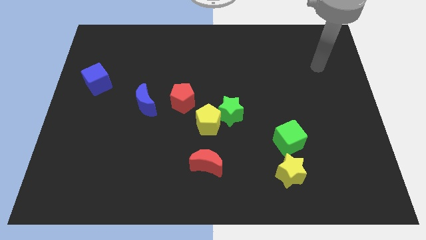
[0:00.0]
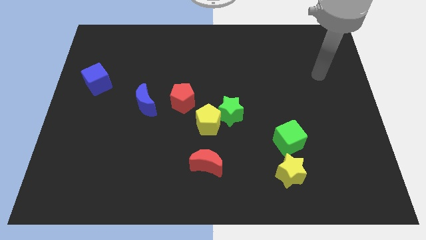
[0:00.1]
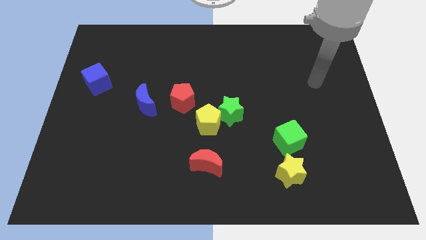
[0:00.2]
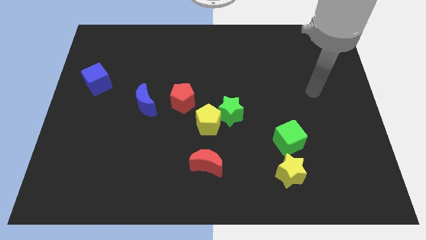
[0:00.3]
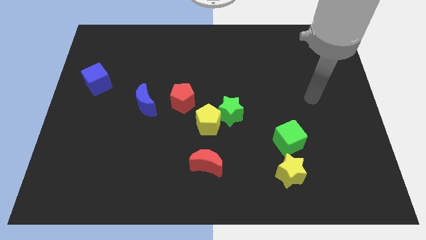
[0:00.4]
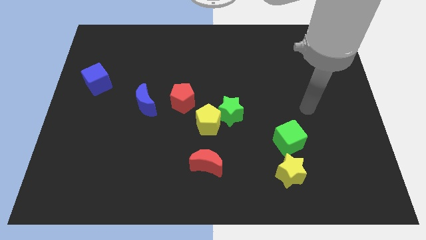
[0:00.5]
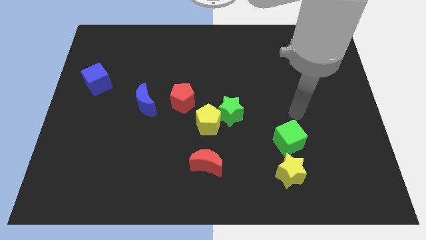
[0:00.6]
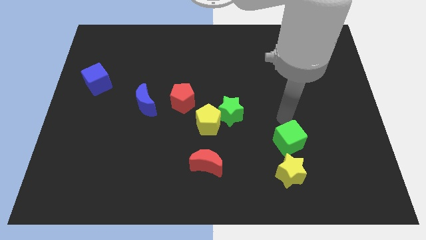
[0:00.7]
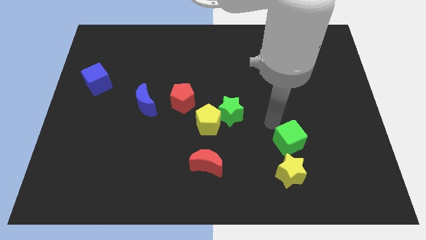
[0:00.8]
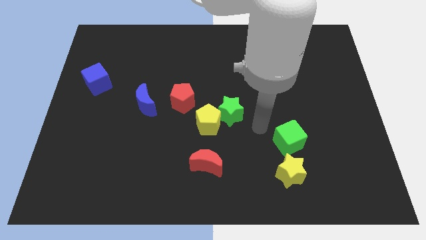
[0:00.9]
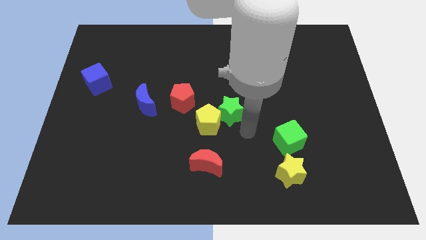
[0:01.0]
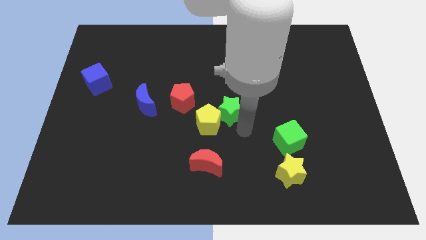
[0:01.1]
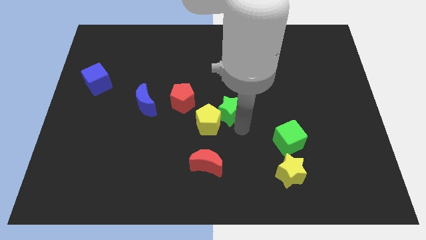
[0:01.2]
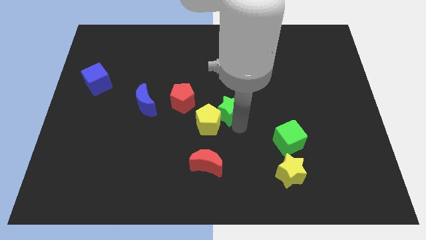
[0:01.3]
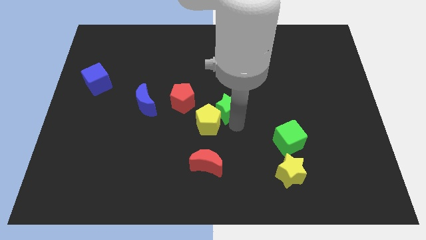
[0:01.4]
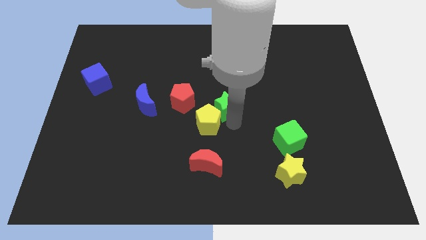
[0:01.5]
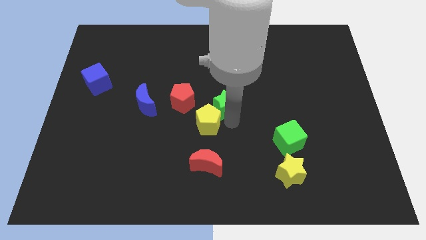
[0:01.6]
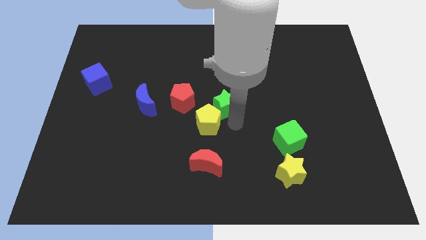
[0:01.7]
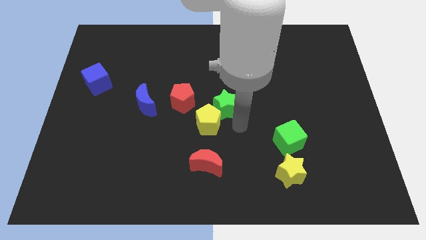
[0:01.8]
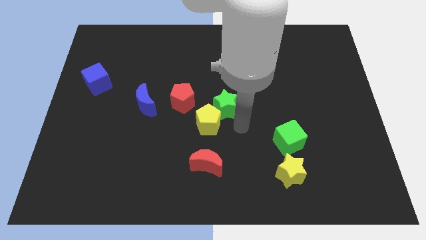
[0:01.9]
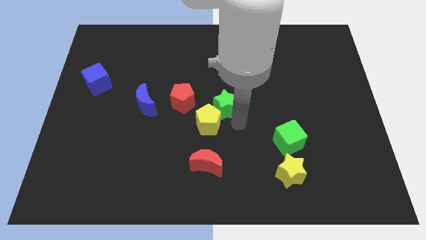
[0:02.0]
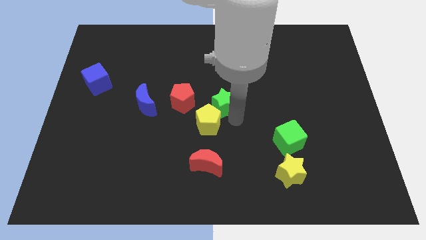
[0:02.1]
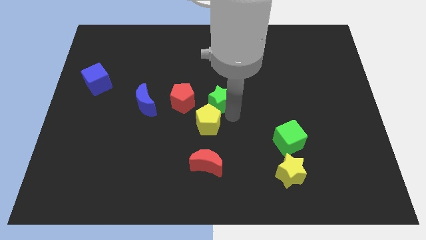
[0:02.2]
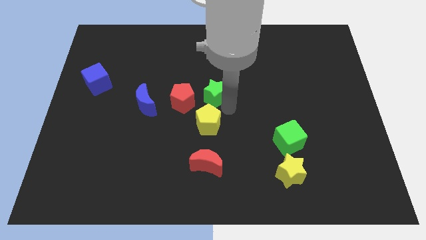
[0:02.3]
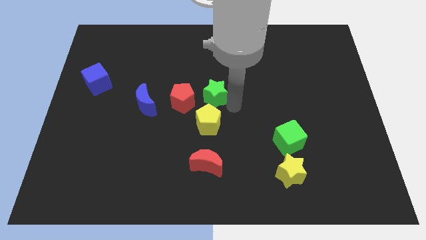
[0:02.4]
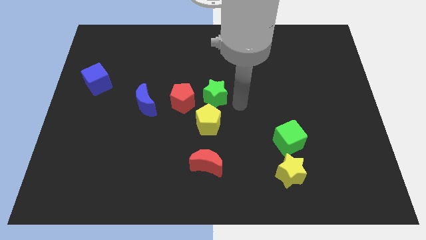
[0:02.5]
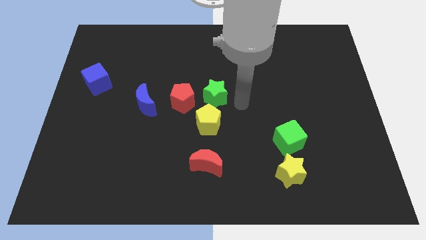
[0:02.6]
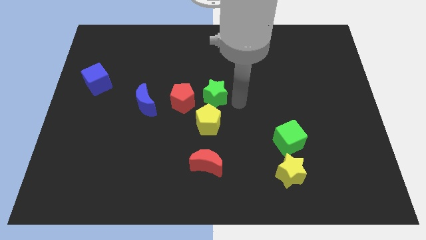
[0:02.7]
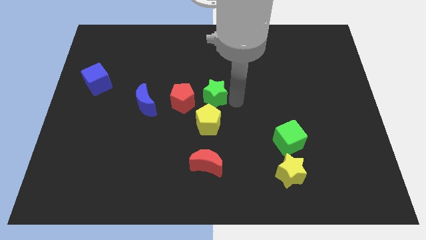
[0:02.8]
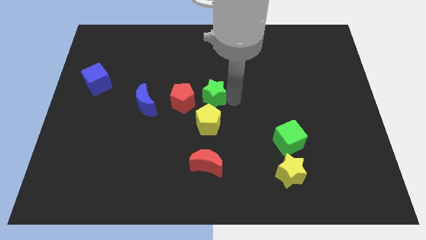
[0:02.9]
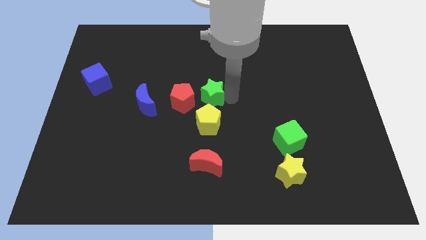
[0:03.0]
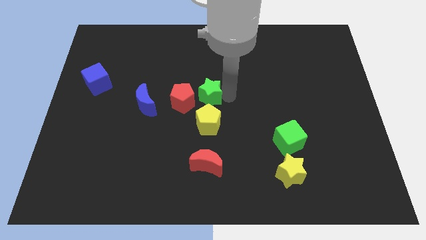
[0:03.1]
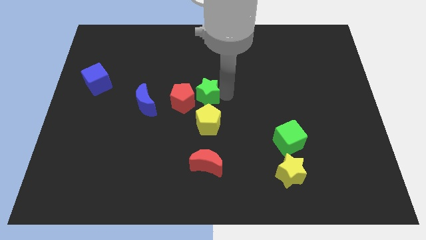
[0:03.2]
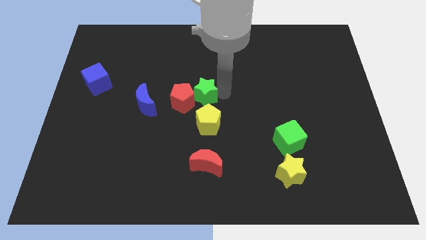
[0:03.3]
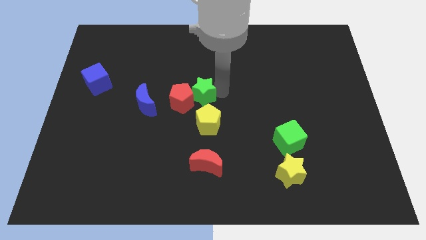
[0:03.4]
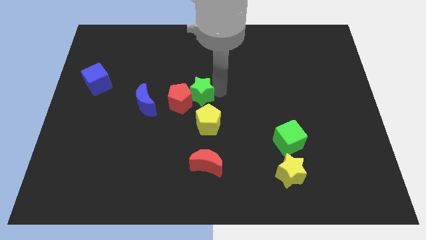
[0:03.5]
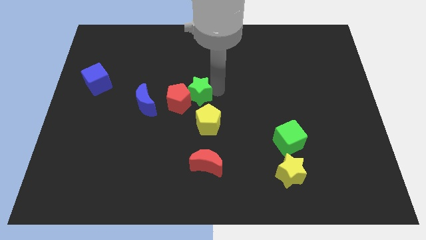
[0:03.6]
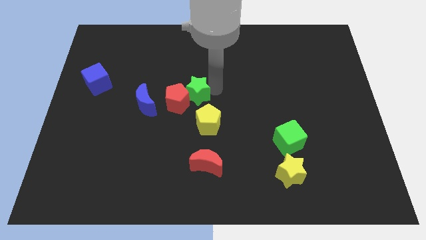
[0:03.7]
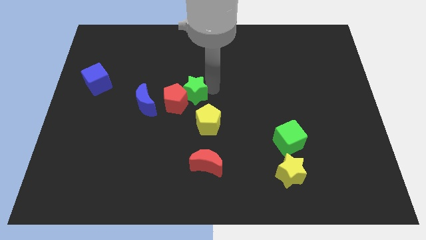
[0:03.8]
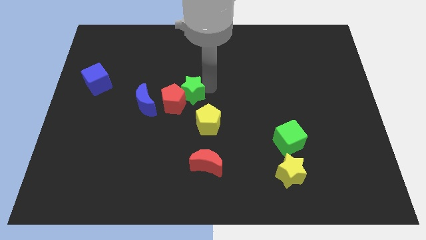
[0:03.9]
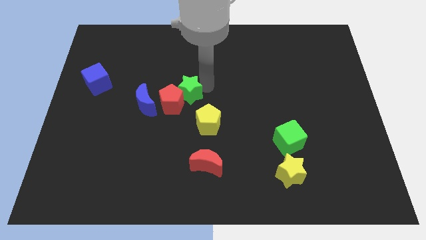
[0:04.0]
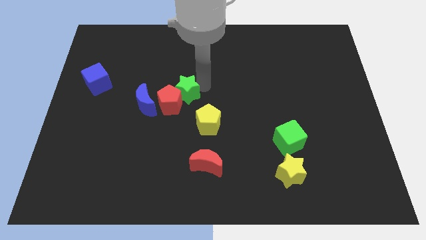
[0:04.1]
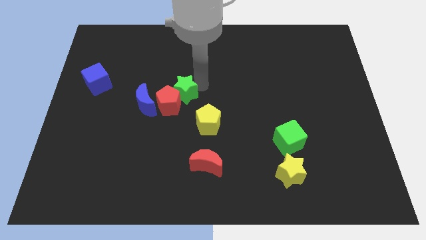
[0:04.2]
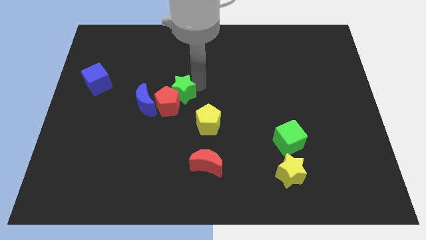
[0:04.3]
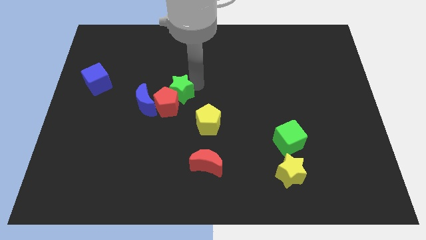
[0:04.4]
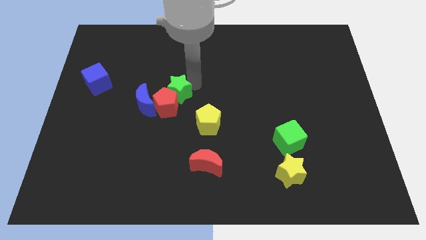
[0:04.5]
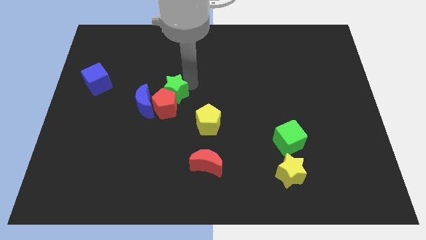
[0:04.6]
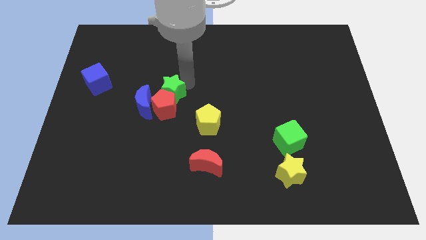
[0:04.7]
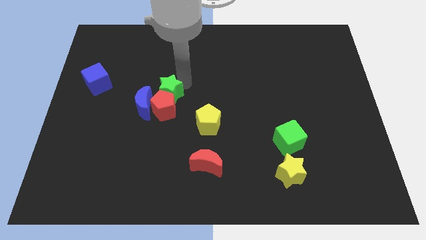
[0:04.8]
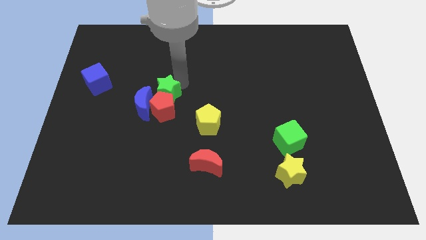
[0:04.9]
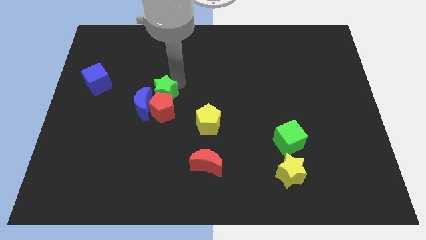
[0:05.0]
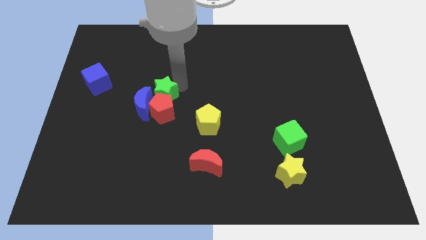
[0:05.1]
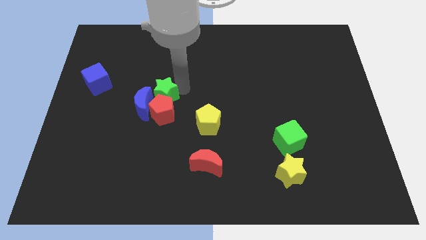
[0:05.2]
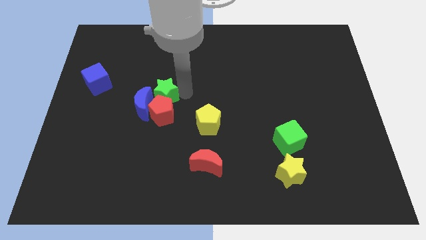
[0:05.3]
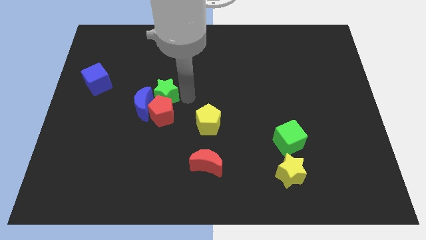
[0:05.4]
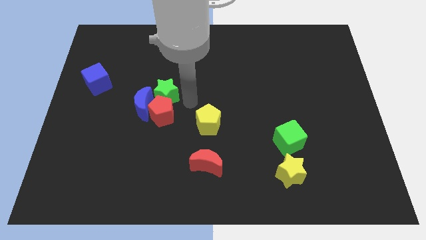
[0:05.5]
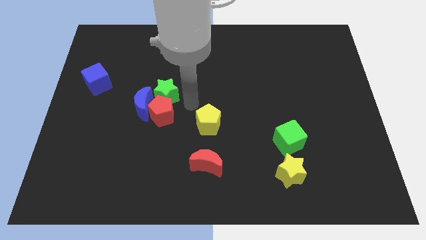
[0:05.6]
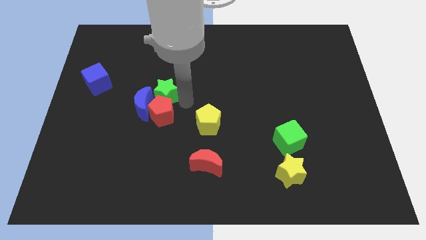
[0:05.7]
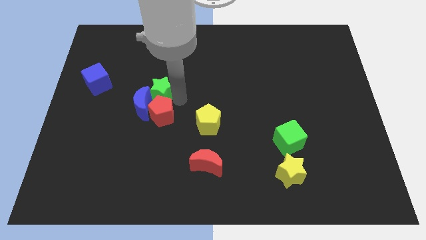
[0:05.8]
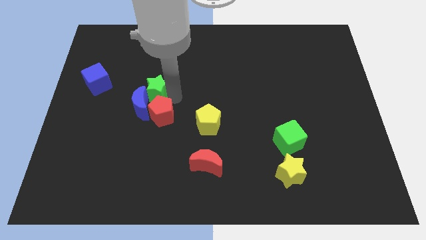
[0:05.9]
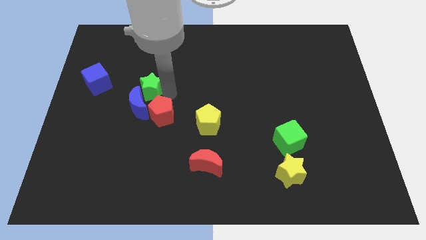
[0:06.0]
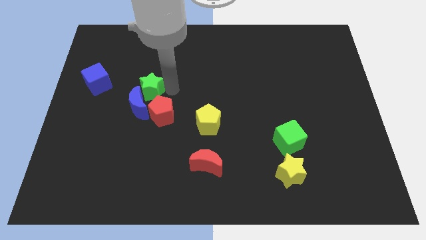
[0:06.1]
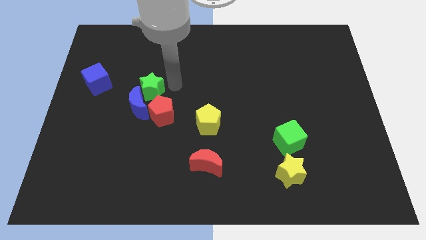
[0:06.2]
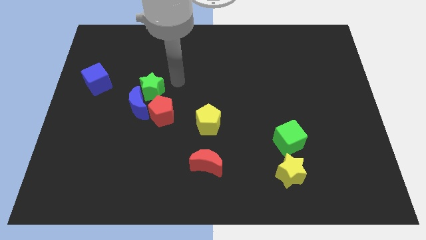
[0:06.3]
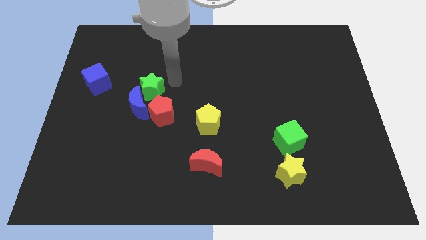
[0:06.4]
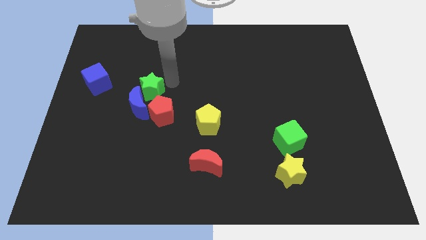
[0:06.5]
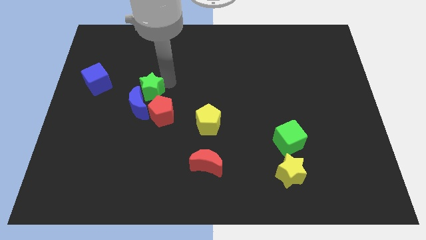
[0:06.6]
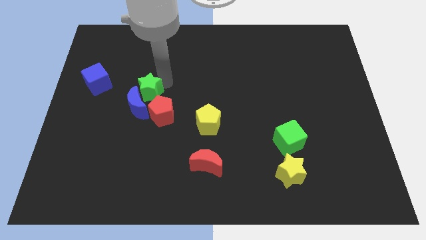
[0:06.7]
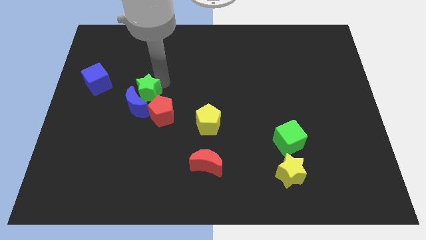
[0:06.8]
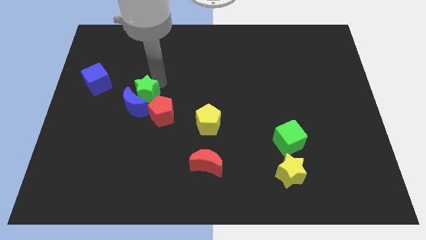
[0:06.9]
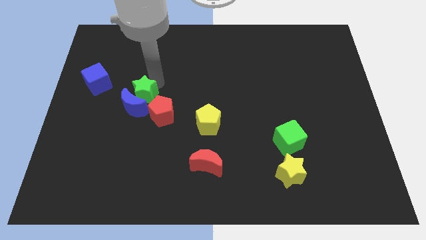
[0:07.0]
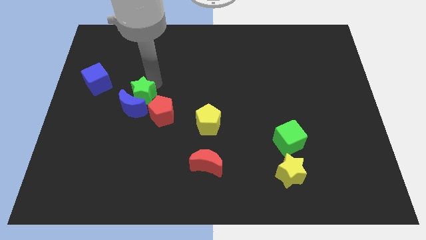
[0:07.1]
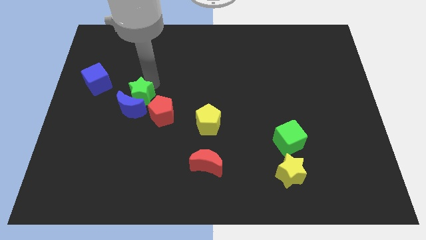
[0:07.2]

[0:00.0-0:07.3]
move the green star to the left

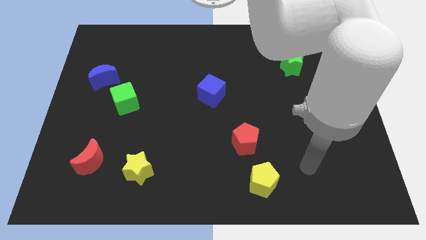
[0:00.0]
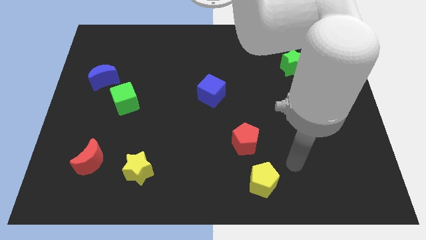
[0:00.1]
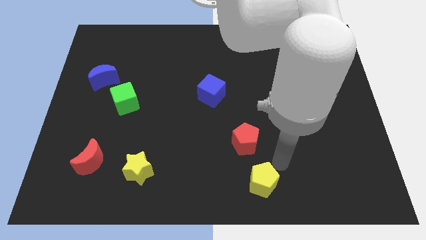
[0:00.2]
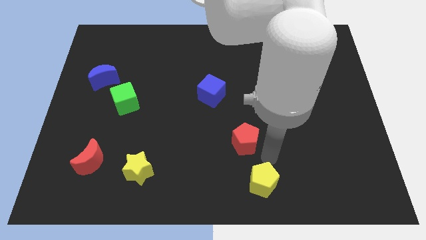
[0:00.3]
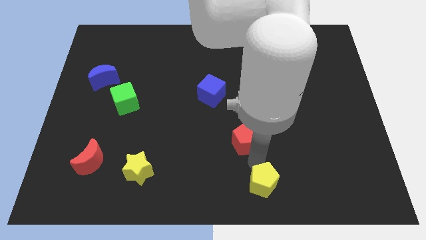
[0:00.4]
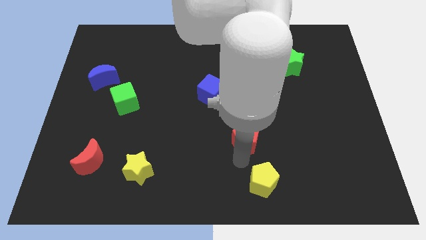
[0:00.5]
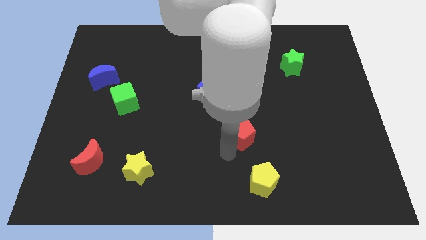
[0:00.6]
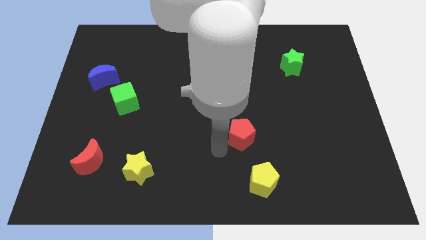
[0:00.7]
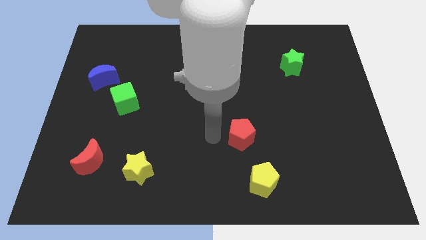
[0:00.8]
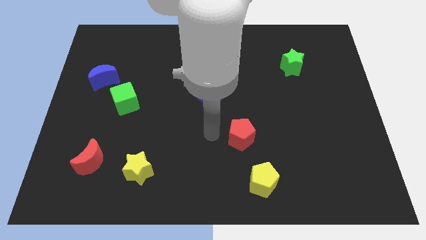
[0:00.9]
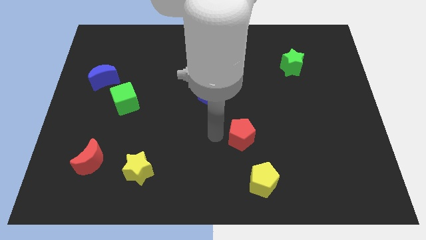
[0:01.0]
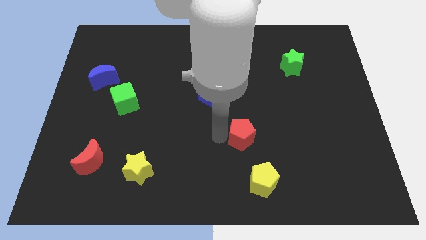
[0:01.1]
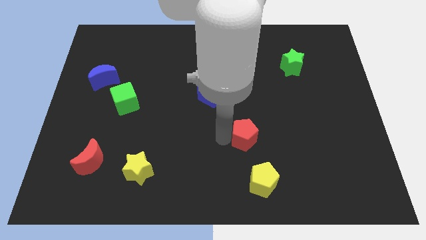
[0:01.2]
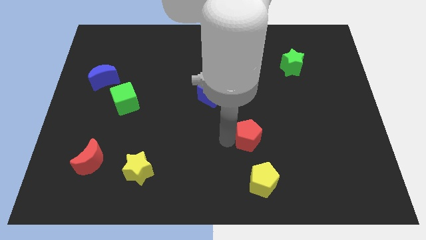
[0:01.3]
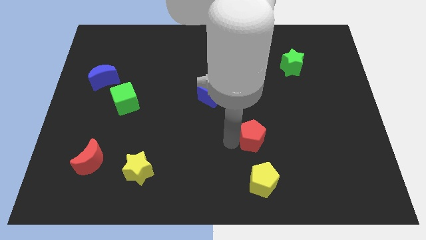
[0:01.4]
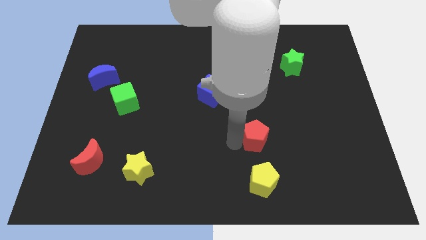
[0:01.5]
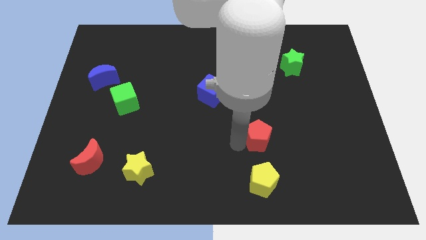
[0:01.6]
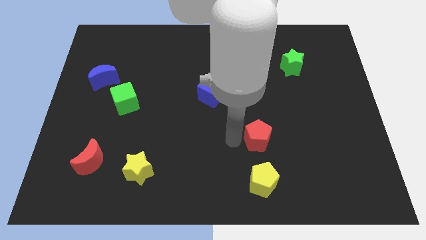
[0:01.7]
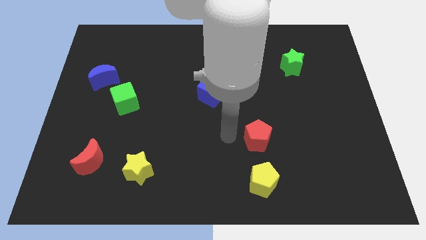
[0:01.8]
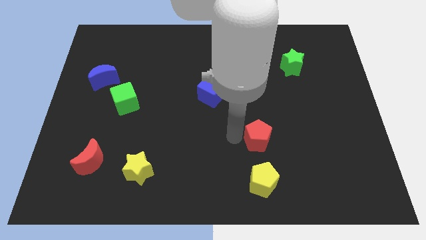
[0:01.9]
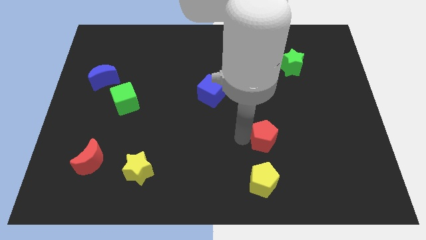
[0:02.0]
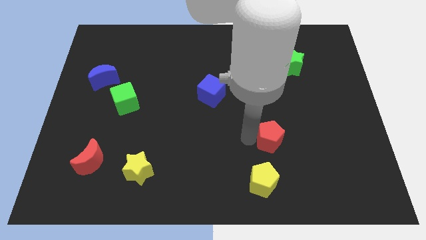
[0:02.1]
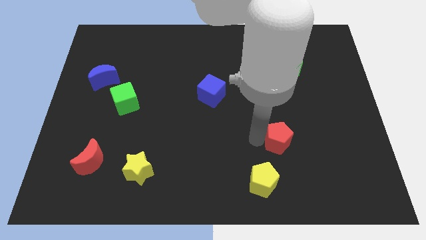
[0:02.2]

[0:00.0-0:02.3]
slightly move the red pentagon to the right
